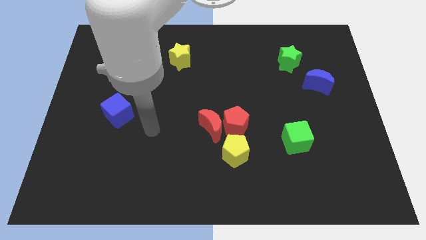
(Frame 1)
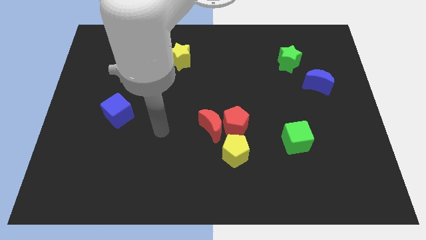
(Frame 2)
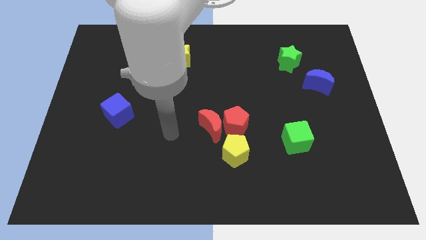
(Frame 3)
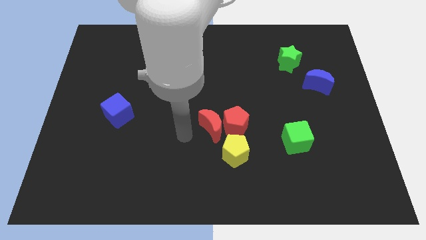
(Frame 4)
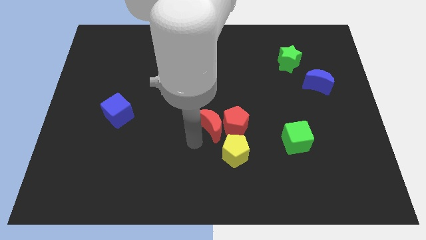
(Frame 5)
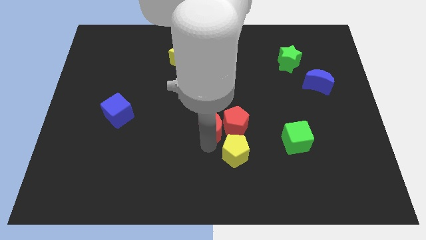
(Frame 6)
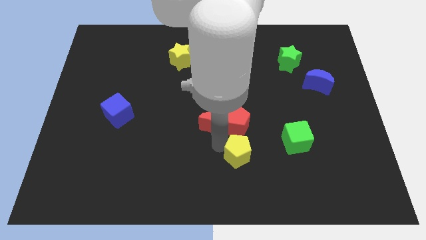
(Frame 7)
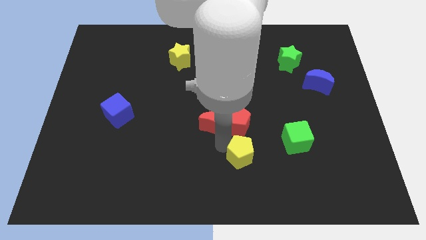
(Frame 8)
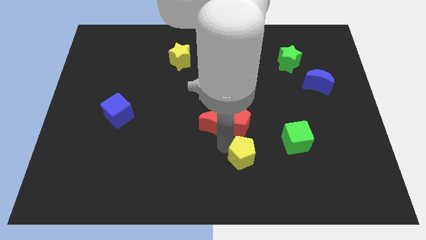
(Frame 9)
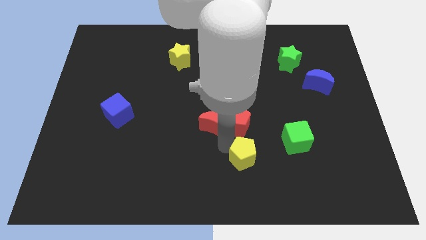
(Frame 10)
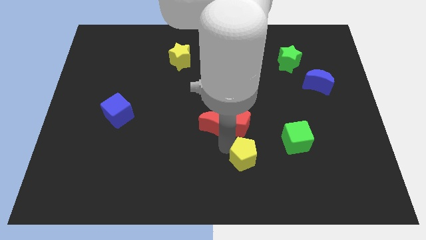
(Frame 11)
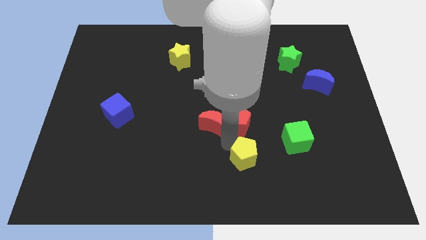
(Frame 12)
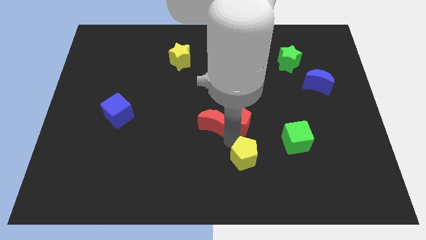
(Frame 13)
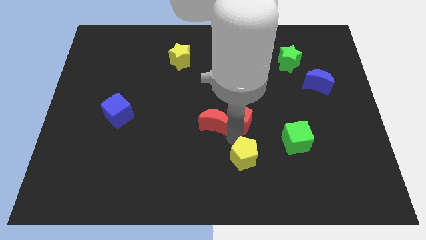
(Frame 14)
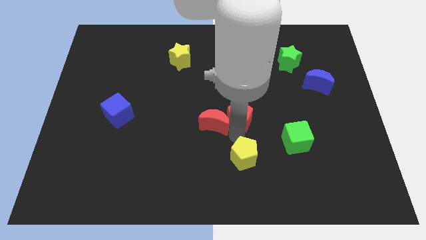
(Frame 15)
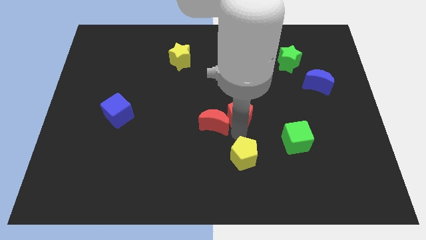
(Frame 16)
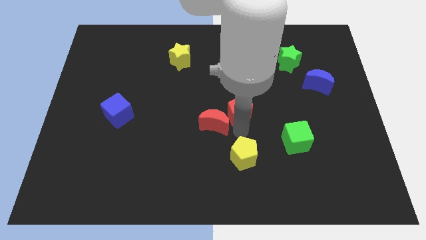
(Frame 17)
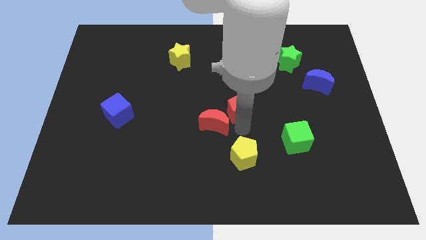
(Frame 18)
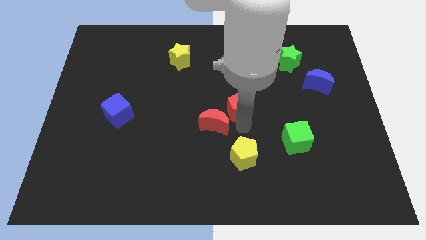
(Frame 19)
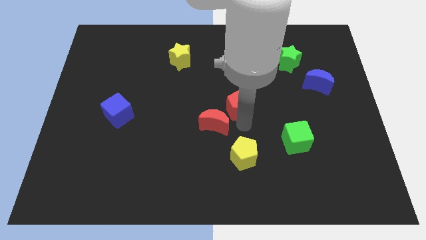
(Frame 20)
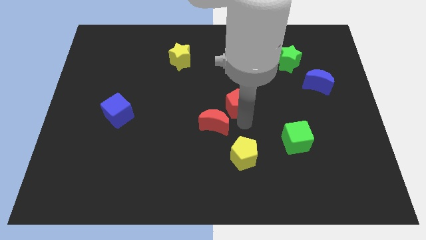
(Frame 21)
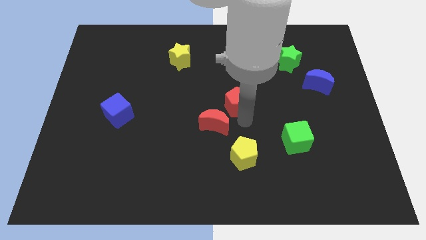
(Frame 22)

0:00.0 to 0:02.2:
pull the red pentagon apart from the red moon and yellow pentagon

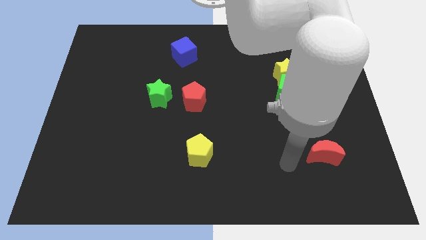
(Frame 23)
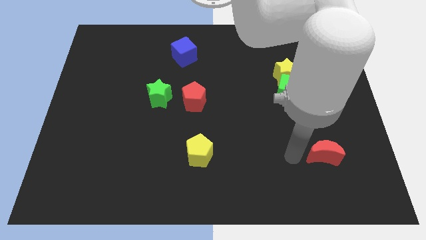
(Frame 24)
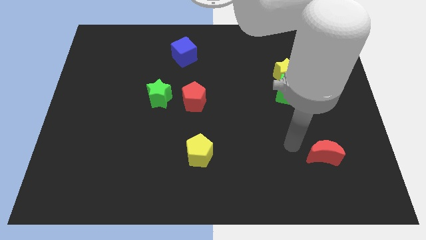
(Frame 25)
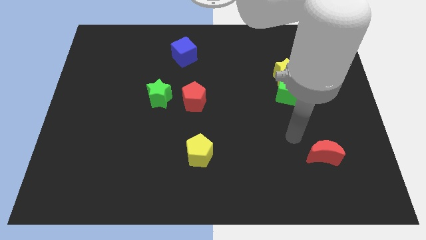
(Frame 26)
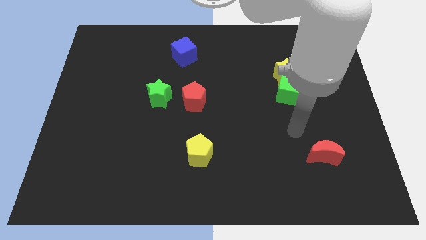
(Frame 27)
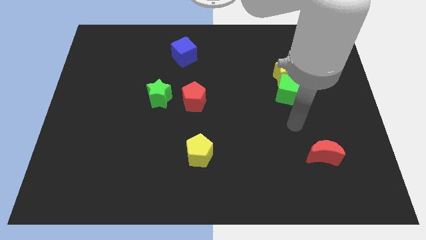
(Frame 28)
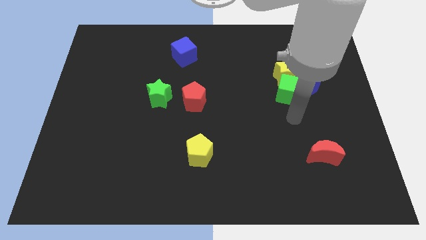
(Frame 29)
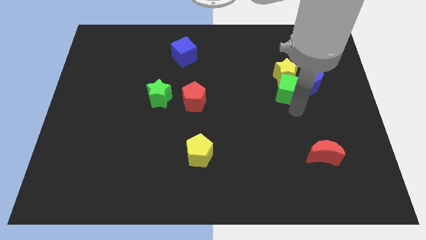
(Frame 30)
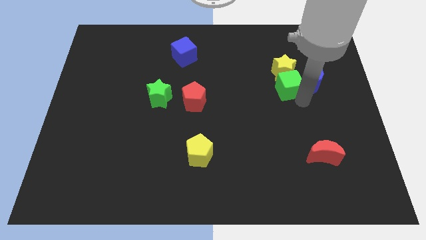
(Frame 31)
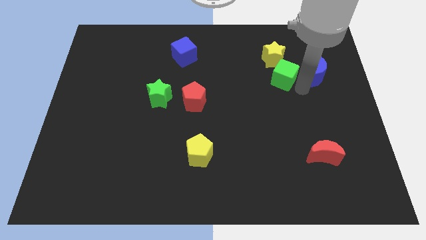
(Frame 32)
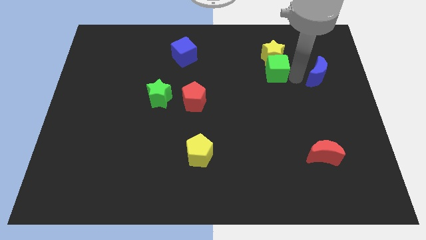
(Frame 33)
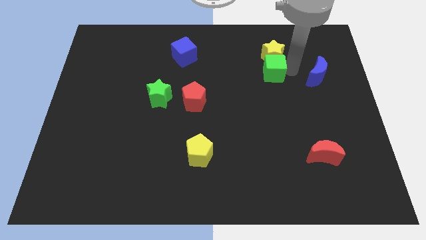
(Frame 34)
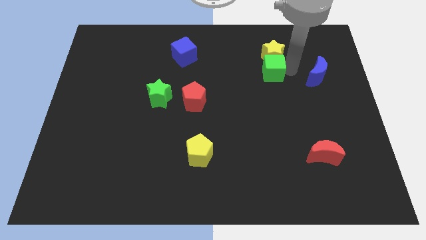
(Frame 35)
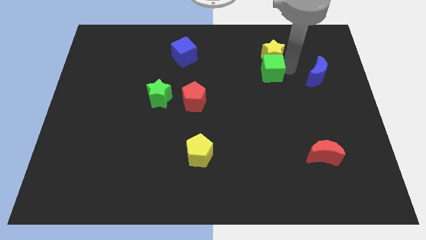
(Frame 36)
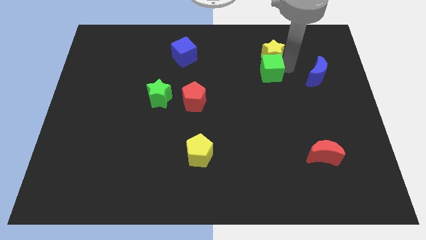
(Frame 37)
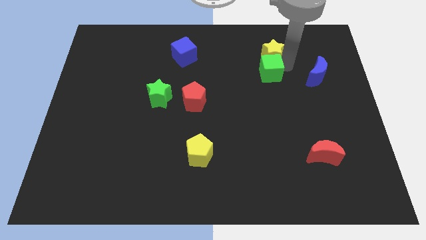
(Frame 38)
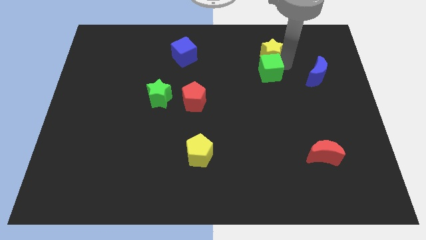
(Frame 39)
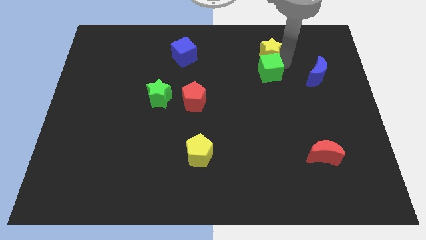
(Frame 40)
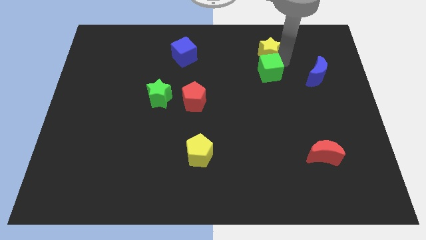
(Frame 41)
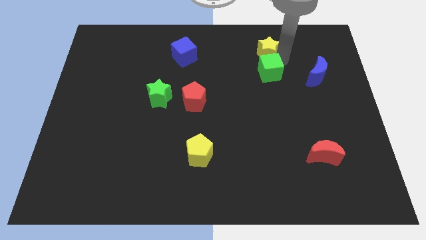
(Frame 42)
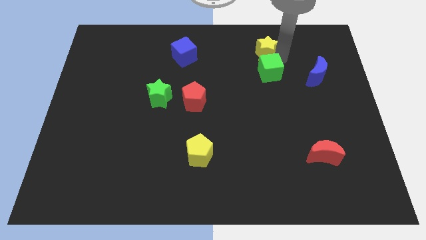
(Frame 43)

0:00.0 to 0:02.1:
separate the yellow star from the green cube and blue moon

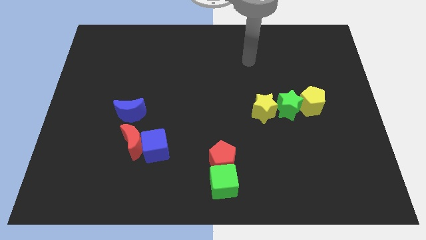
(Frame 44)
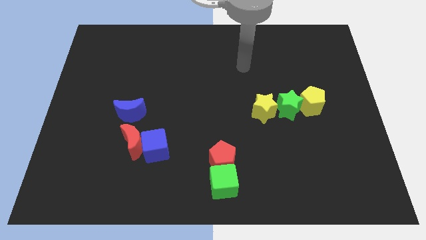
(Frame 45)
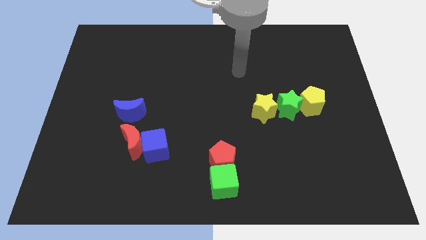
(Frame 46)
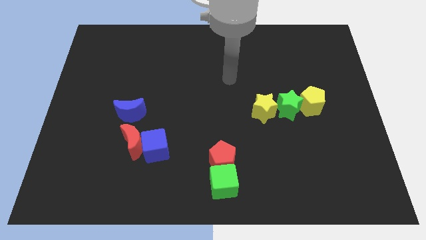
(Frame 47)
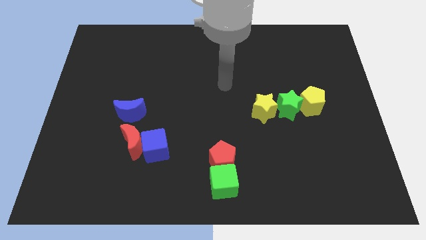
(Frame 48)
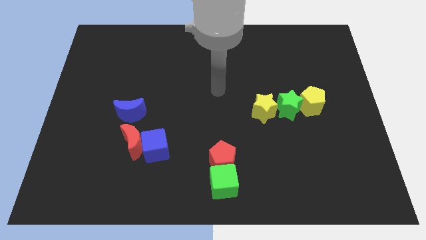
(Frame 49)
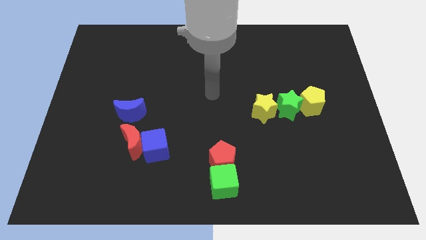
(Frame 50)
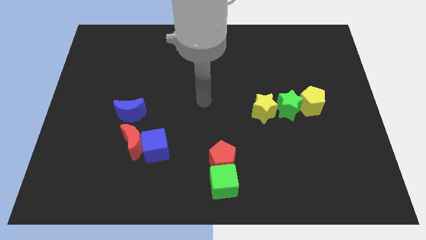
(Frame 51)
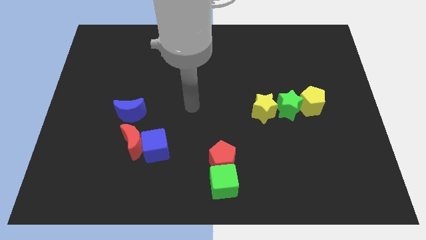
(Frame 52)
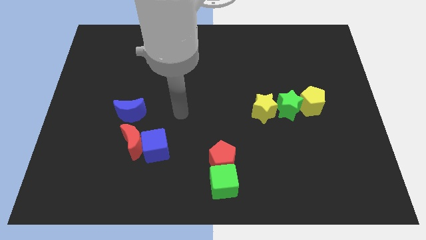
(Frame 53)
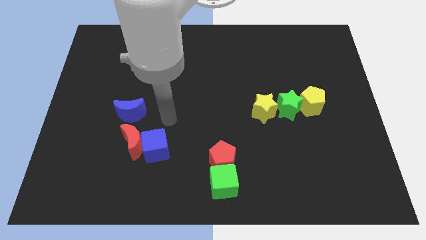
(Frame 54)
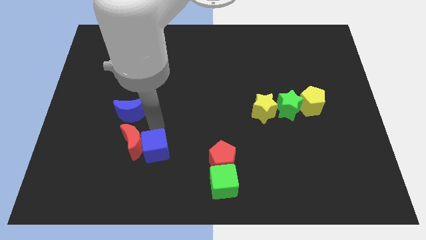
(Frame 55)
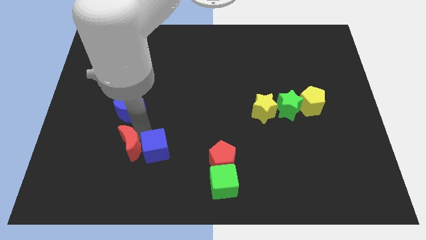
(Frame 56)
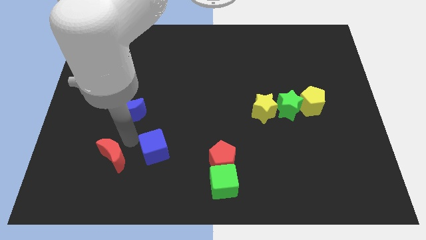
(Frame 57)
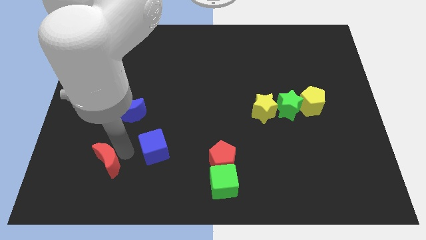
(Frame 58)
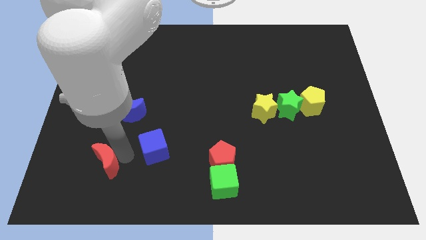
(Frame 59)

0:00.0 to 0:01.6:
pull the blue cube apart from the red moon

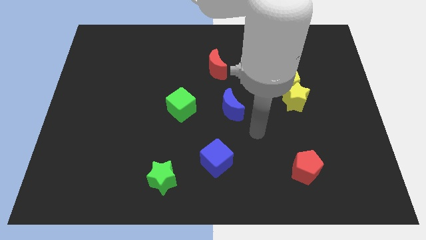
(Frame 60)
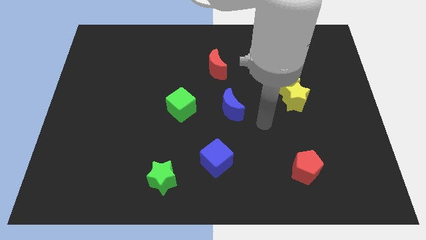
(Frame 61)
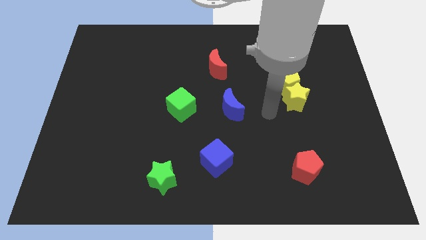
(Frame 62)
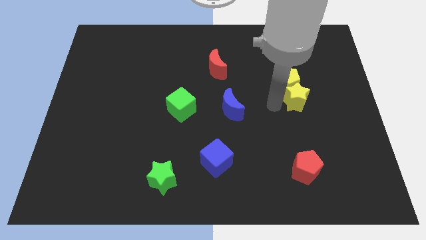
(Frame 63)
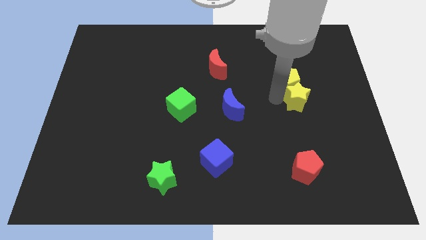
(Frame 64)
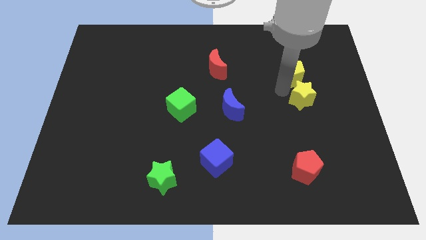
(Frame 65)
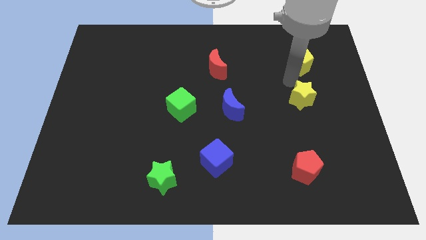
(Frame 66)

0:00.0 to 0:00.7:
pull the yellow star apart from the yellow pentagon

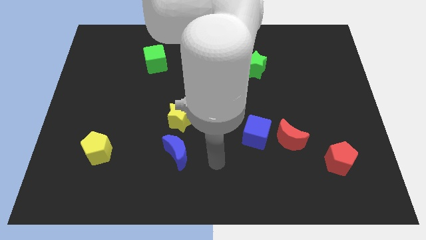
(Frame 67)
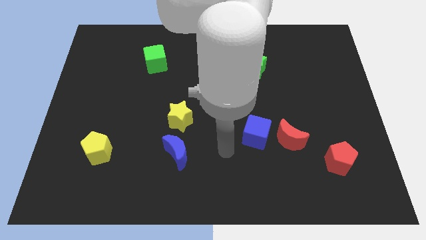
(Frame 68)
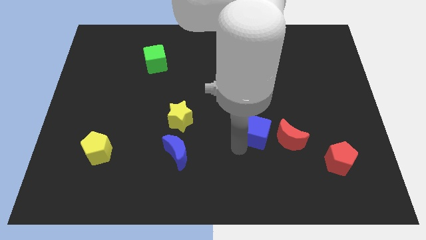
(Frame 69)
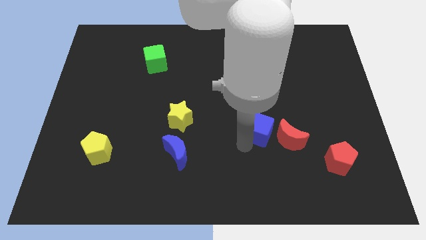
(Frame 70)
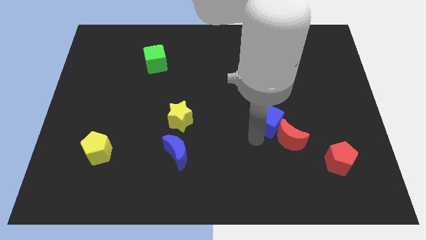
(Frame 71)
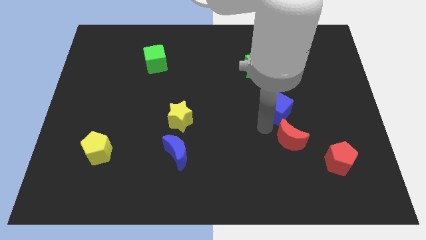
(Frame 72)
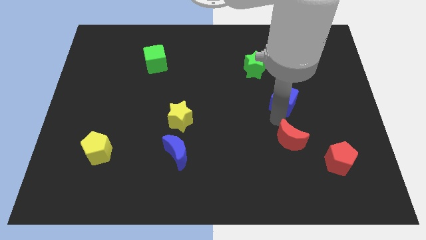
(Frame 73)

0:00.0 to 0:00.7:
pull the red moon apart from the blue cube

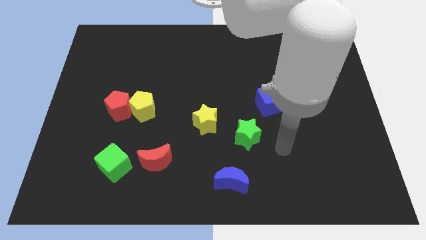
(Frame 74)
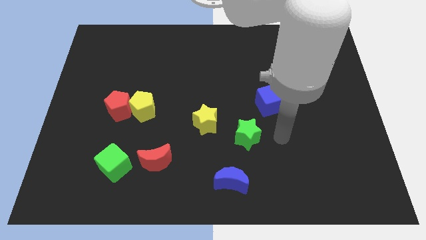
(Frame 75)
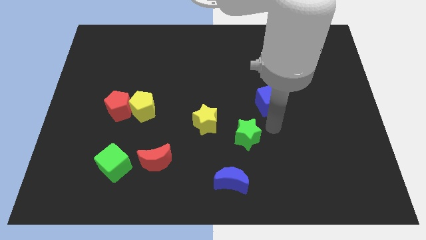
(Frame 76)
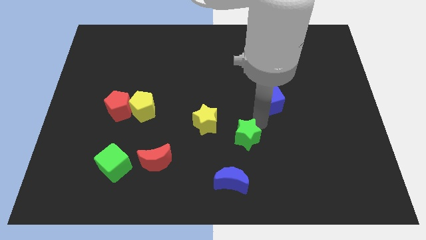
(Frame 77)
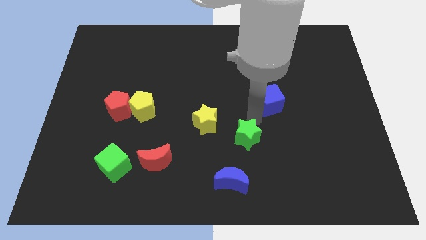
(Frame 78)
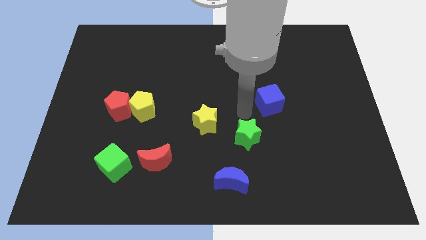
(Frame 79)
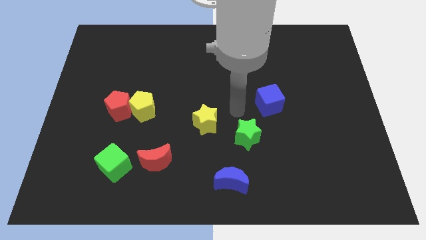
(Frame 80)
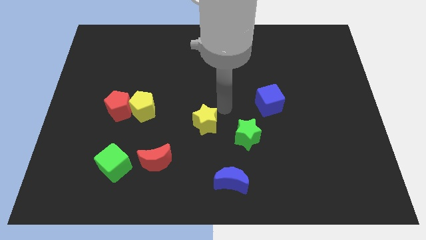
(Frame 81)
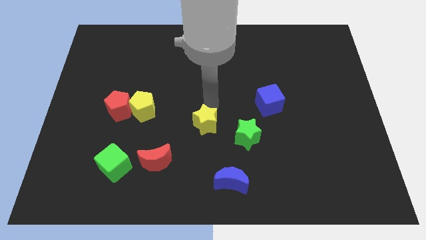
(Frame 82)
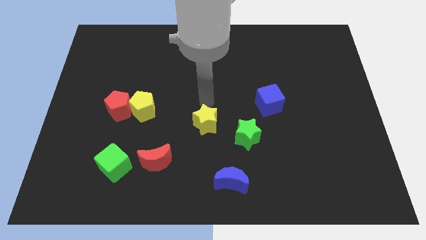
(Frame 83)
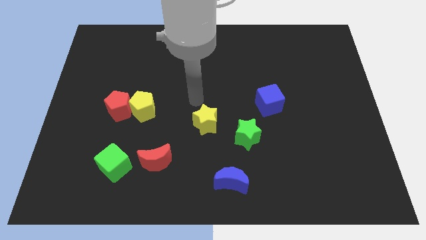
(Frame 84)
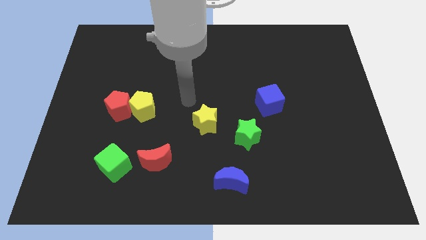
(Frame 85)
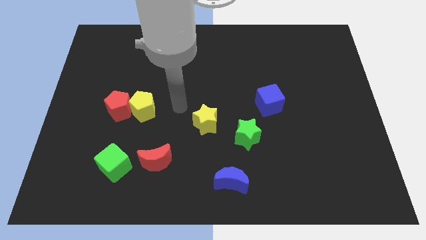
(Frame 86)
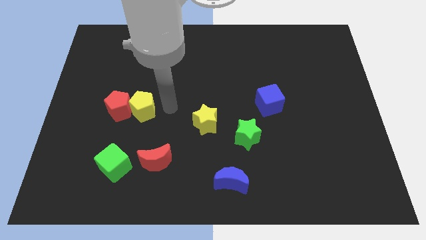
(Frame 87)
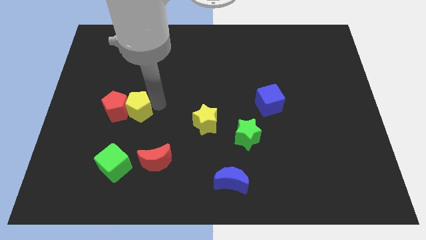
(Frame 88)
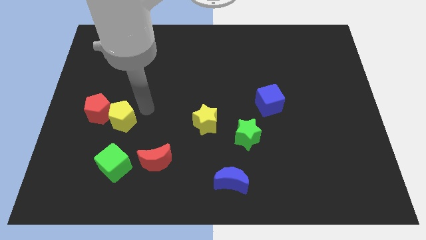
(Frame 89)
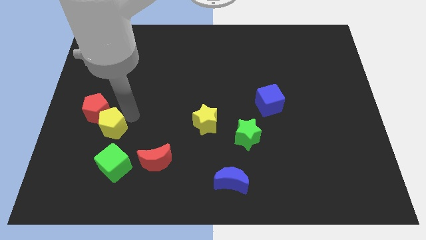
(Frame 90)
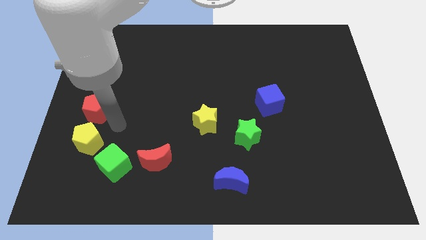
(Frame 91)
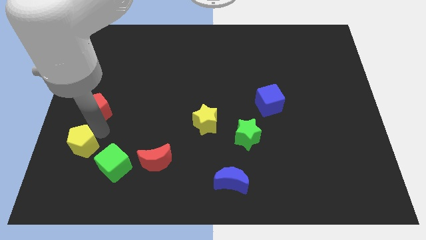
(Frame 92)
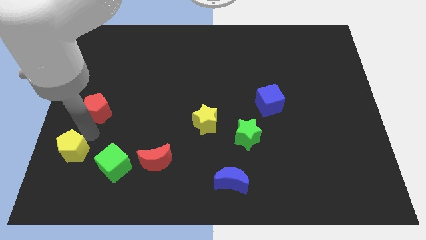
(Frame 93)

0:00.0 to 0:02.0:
move the red pentagon away from the yellow pentagon
